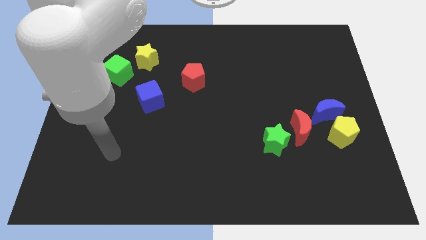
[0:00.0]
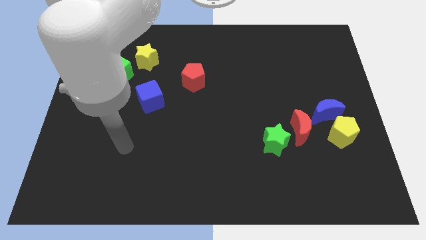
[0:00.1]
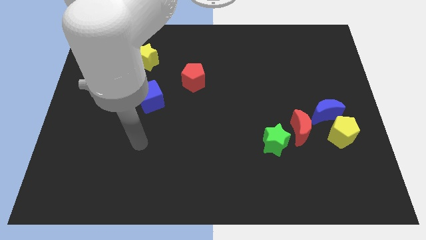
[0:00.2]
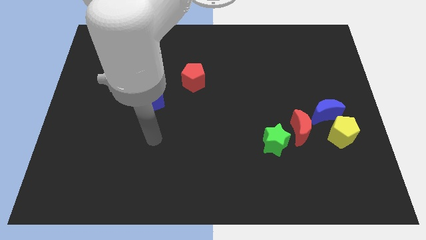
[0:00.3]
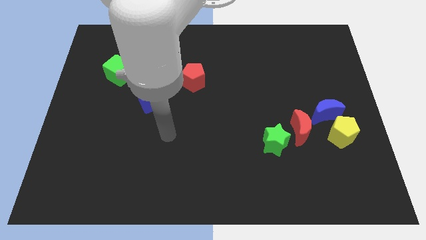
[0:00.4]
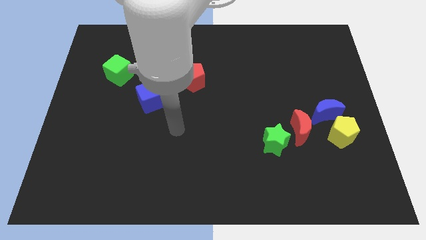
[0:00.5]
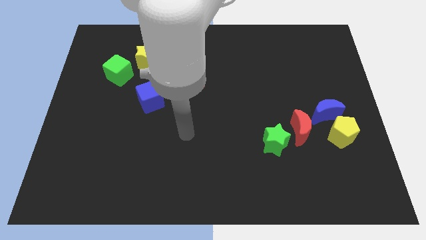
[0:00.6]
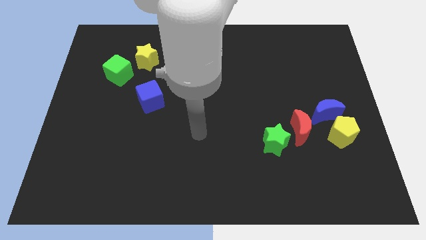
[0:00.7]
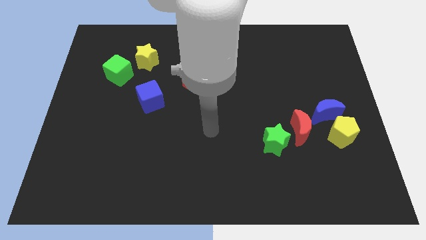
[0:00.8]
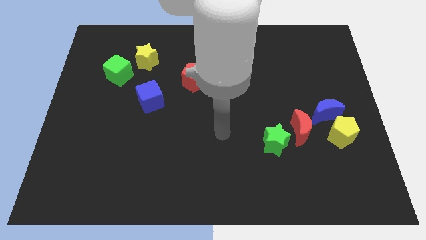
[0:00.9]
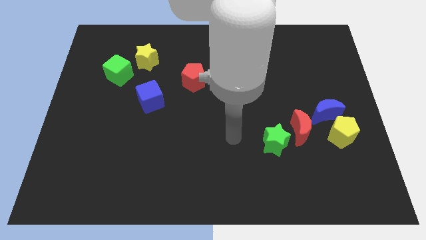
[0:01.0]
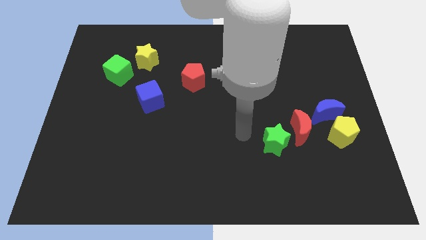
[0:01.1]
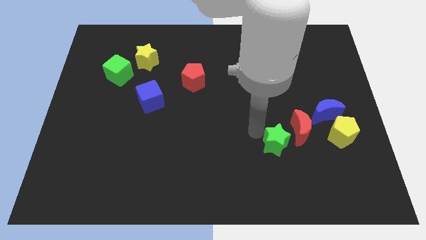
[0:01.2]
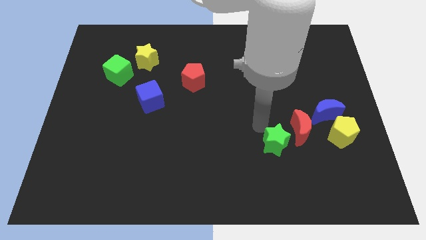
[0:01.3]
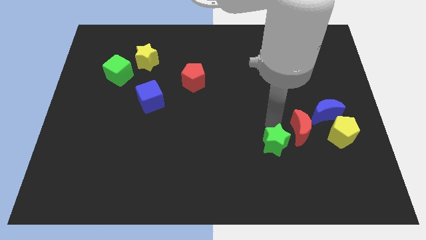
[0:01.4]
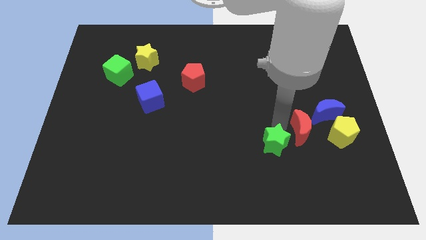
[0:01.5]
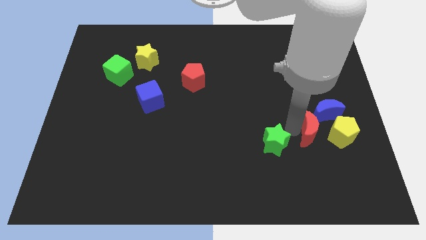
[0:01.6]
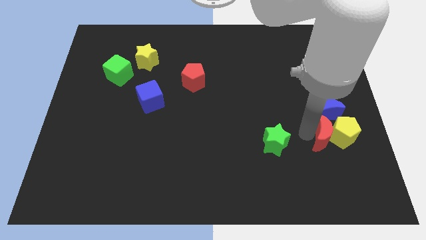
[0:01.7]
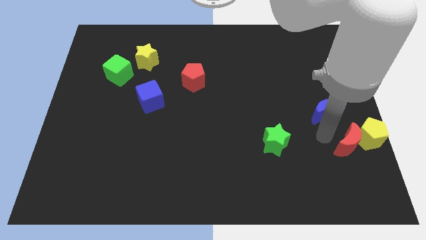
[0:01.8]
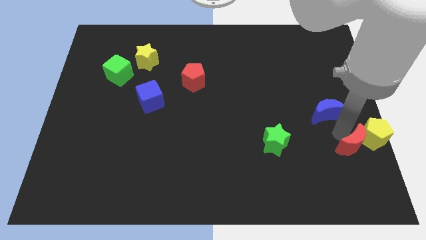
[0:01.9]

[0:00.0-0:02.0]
move the blue moon away from the yellow pentagon and red moon

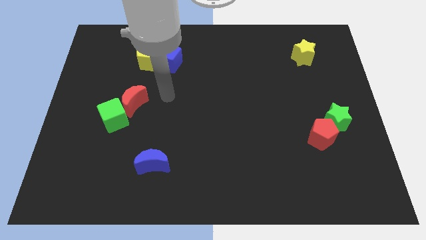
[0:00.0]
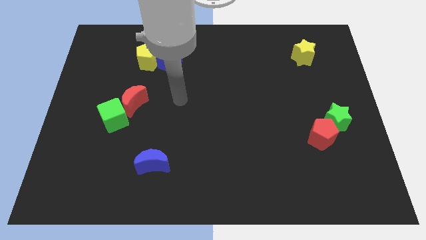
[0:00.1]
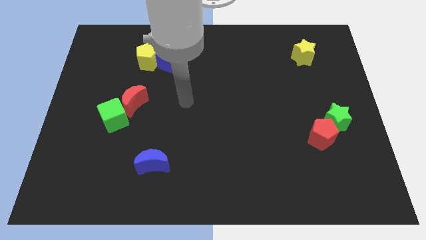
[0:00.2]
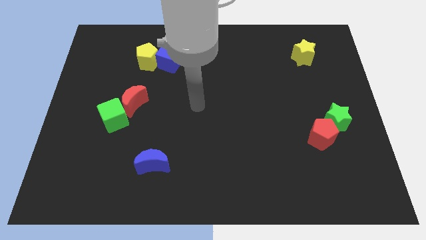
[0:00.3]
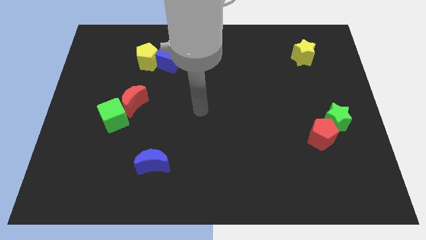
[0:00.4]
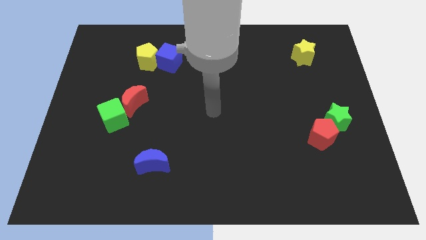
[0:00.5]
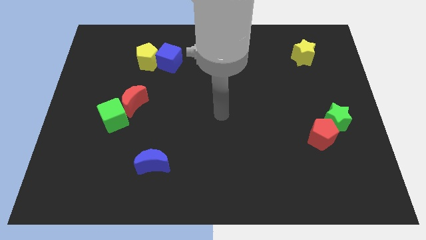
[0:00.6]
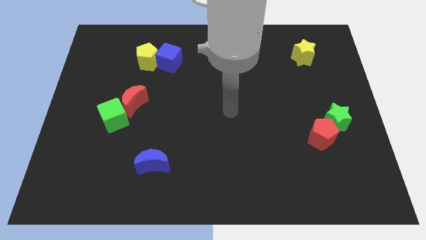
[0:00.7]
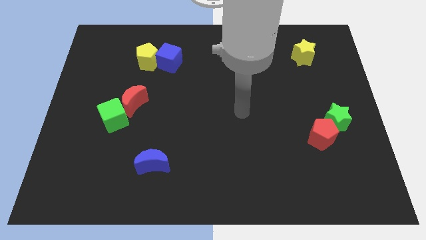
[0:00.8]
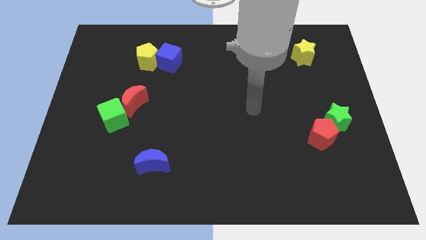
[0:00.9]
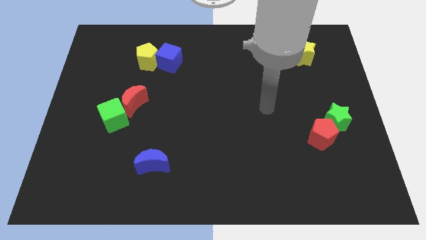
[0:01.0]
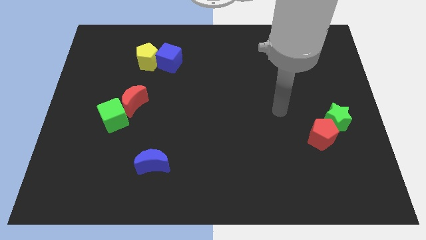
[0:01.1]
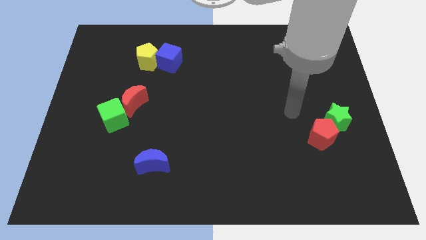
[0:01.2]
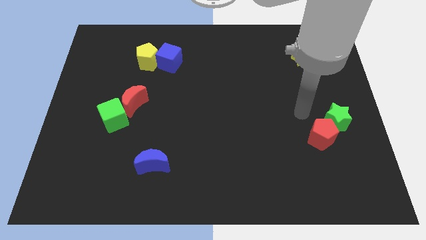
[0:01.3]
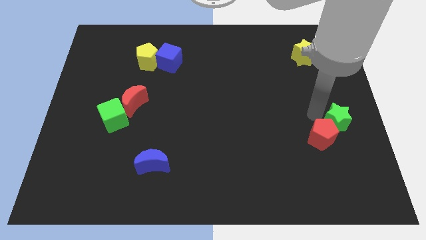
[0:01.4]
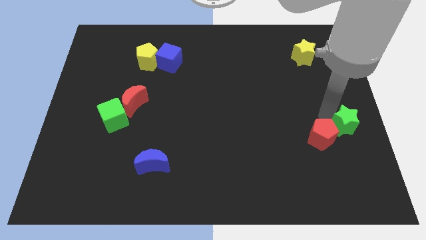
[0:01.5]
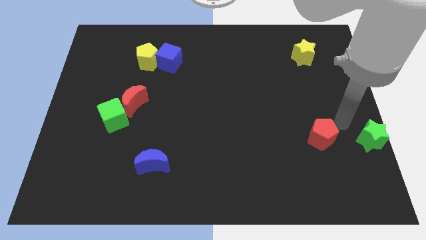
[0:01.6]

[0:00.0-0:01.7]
pull the red pentagon apart from the green star

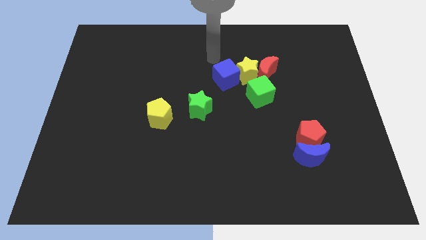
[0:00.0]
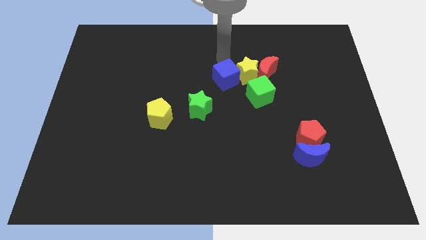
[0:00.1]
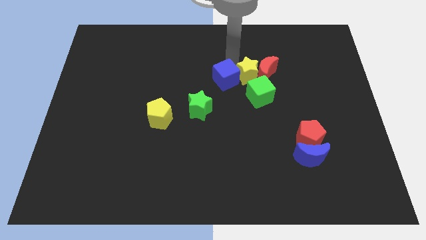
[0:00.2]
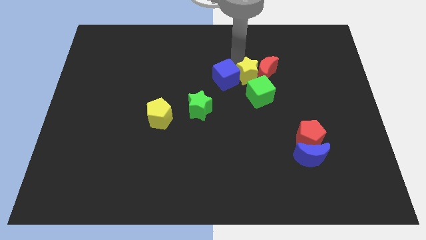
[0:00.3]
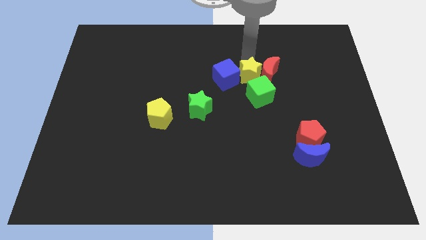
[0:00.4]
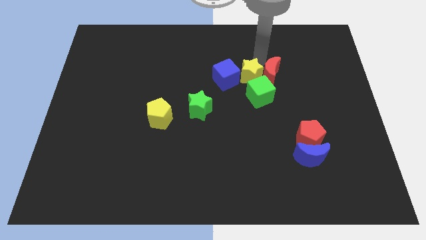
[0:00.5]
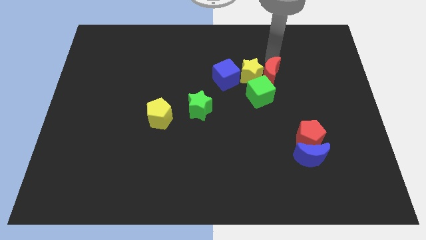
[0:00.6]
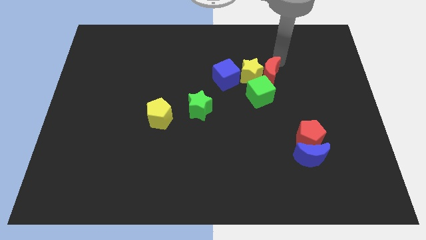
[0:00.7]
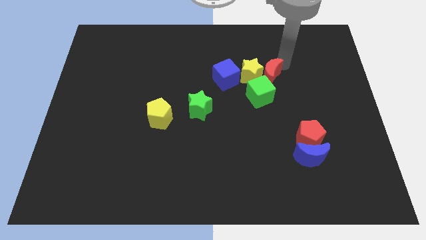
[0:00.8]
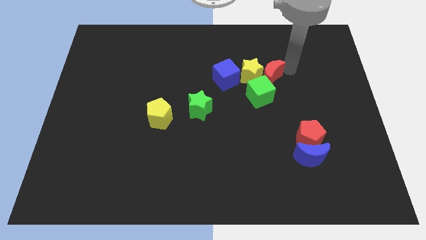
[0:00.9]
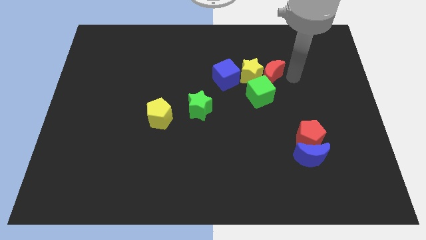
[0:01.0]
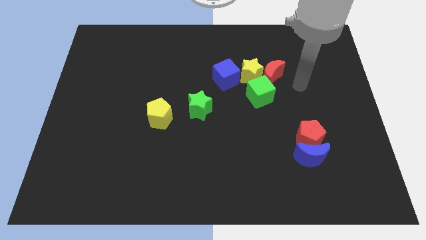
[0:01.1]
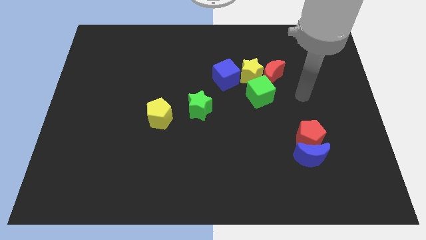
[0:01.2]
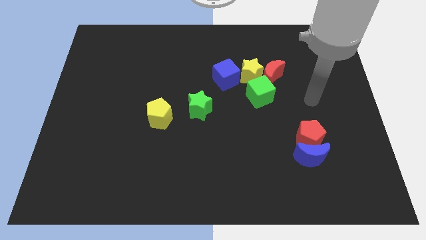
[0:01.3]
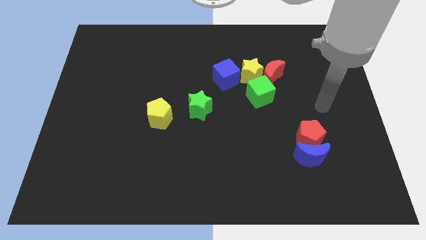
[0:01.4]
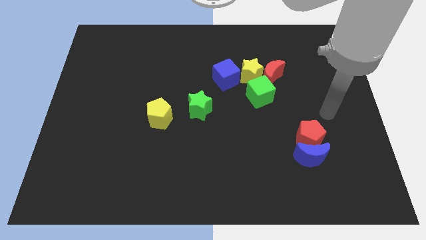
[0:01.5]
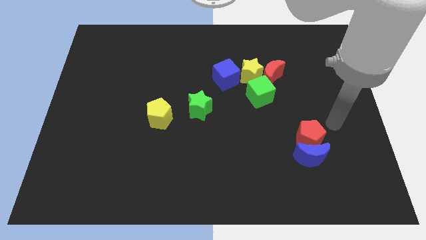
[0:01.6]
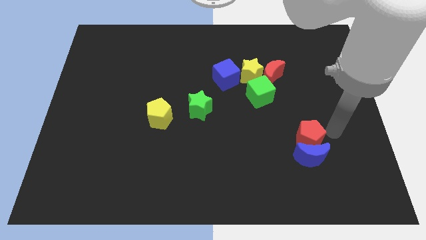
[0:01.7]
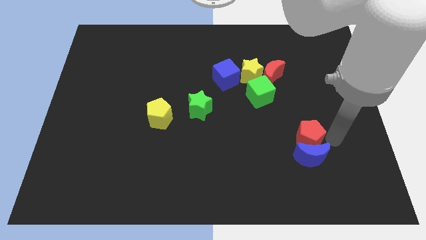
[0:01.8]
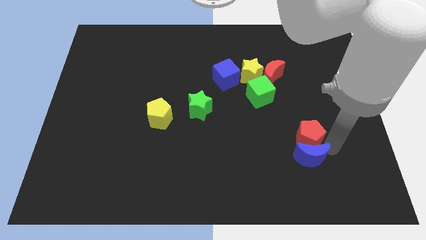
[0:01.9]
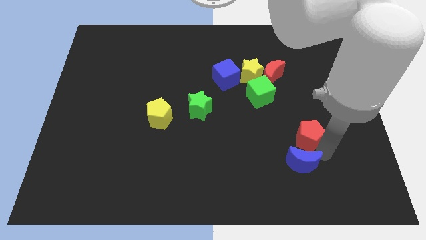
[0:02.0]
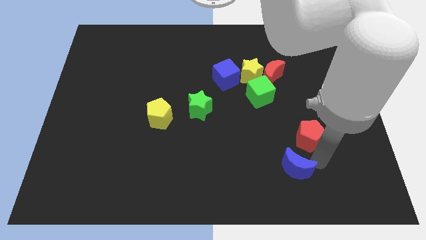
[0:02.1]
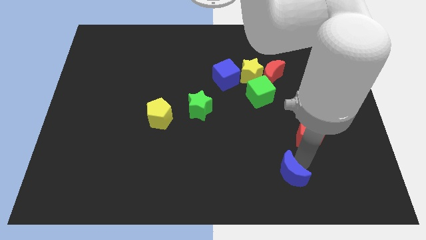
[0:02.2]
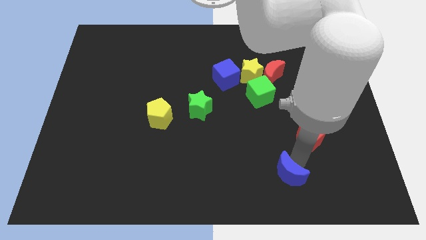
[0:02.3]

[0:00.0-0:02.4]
pull the red pentagon apart from the blue moon

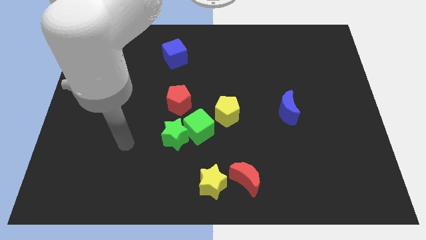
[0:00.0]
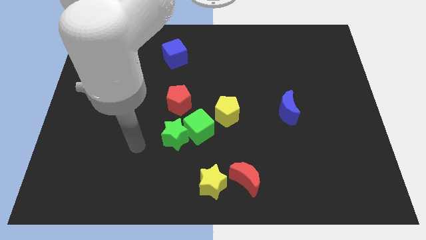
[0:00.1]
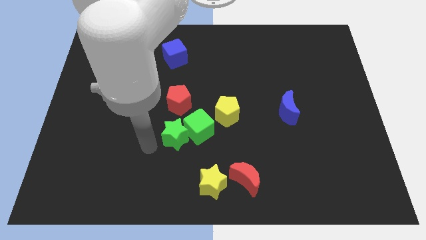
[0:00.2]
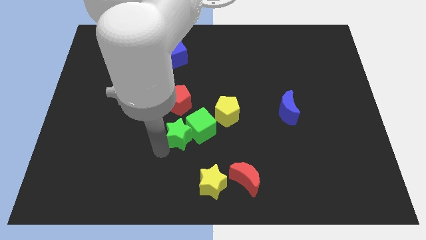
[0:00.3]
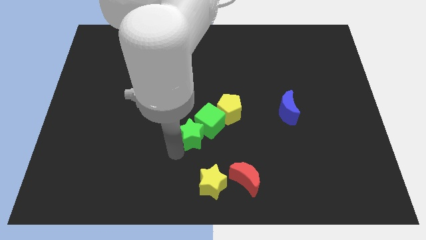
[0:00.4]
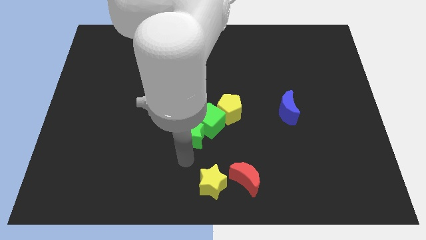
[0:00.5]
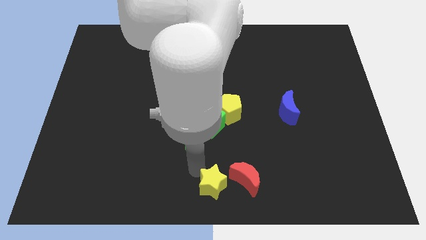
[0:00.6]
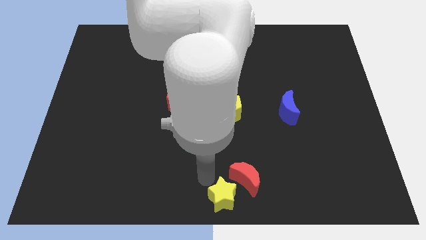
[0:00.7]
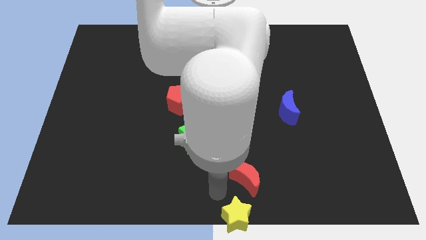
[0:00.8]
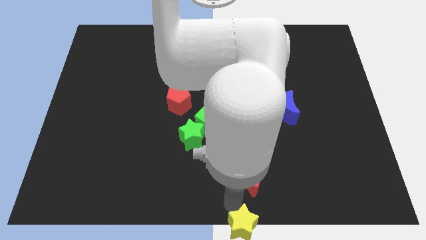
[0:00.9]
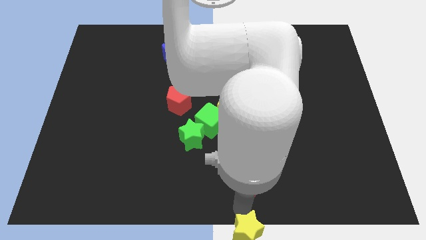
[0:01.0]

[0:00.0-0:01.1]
pull the red moon apart from the yellow star

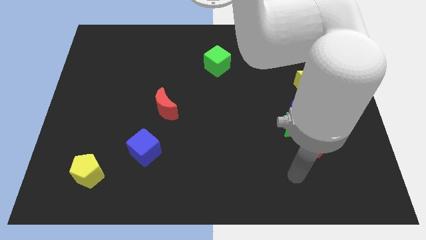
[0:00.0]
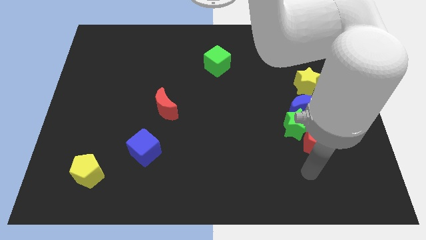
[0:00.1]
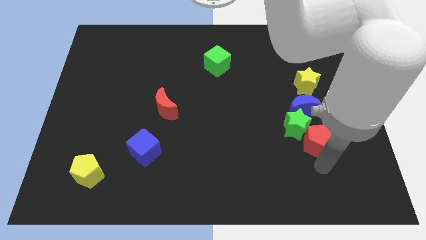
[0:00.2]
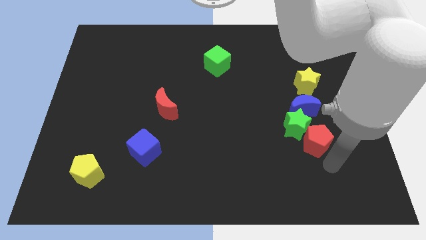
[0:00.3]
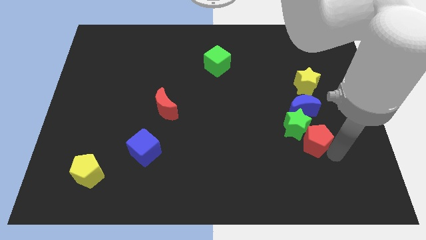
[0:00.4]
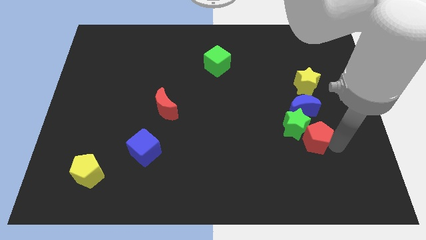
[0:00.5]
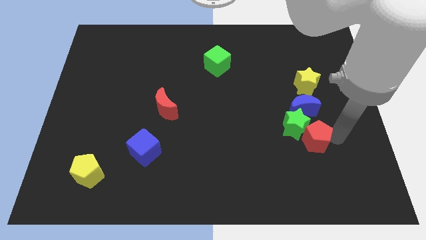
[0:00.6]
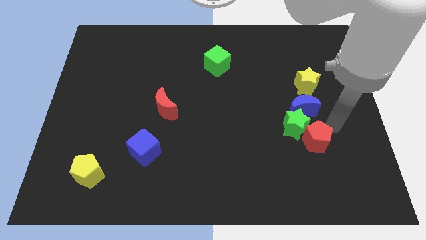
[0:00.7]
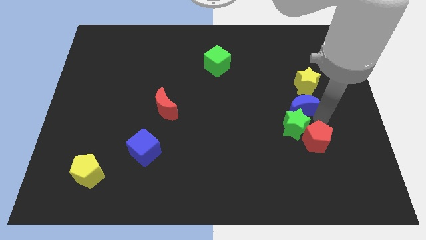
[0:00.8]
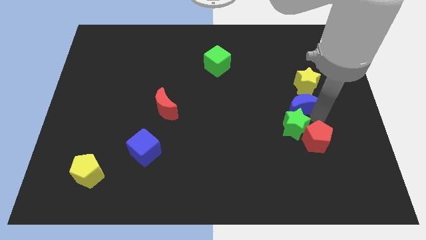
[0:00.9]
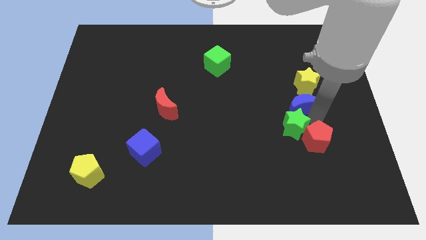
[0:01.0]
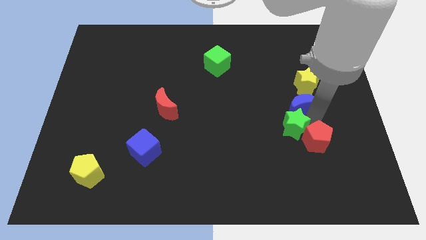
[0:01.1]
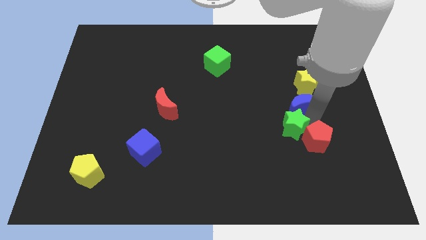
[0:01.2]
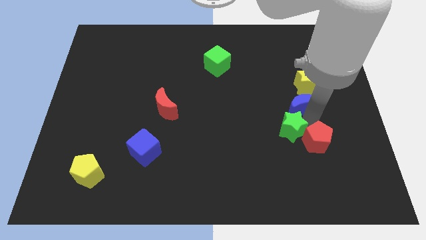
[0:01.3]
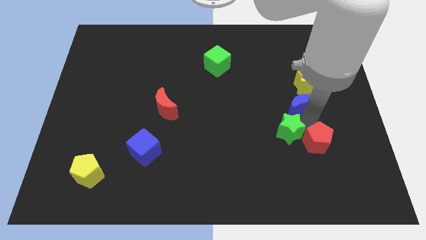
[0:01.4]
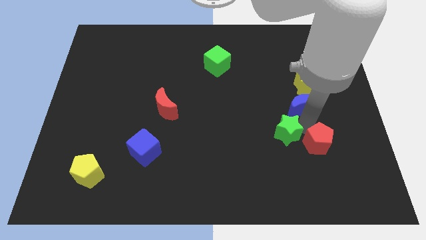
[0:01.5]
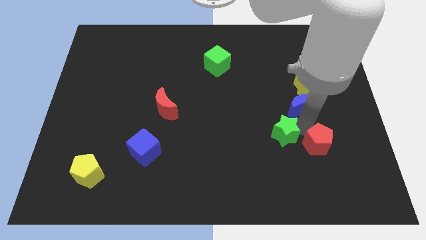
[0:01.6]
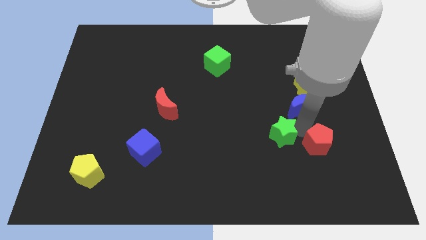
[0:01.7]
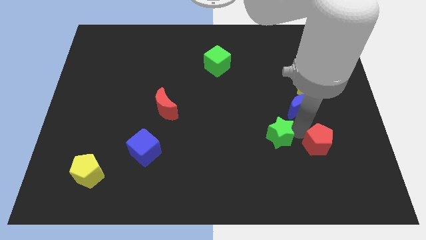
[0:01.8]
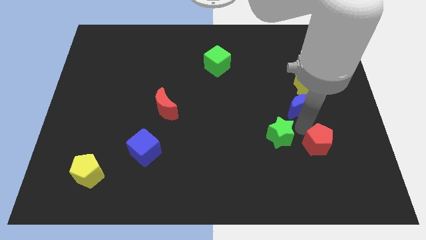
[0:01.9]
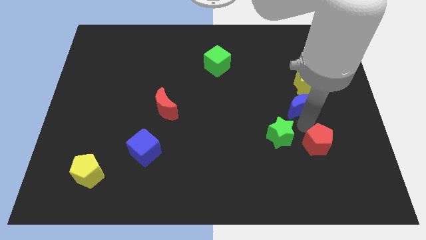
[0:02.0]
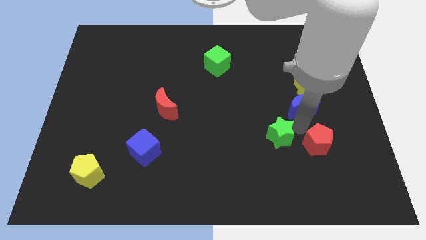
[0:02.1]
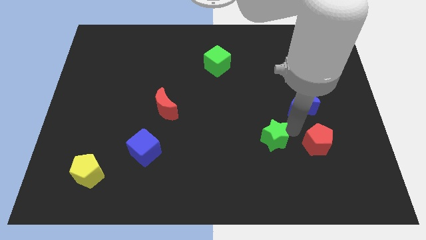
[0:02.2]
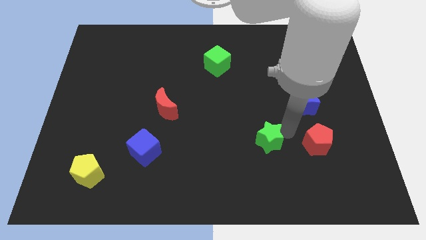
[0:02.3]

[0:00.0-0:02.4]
pull the green star apart from the blue moon and red pentagon
